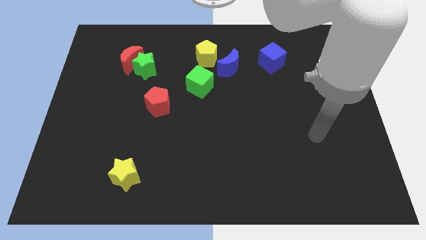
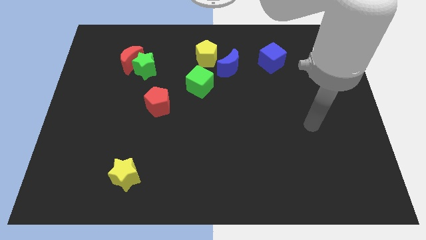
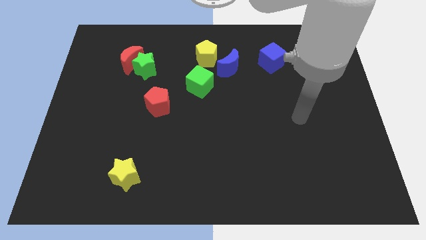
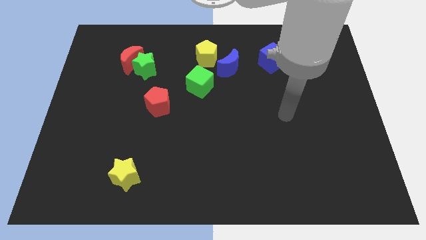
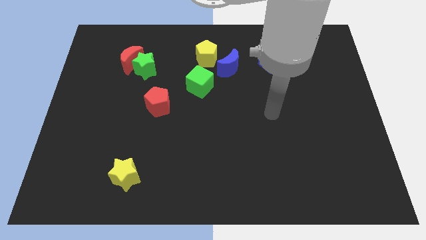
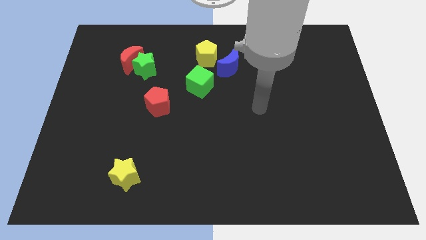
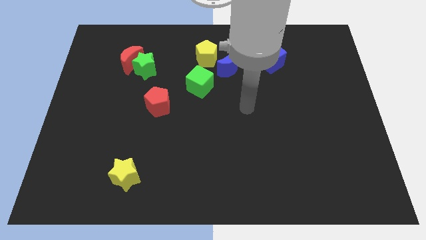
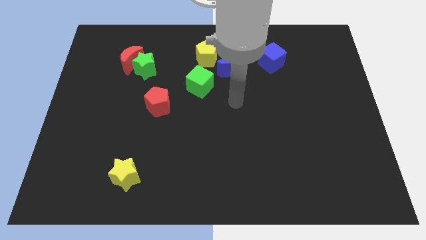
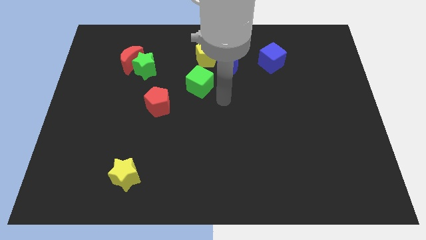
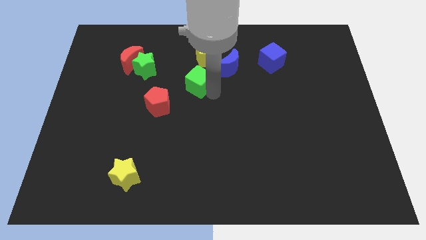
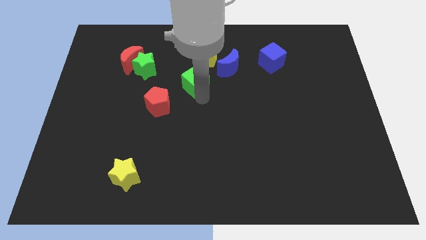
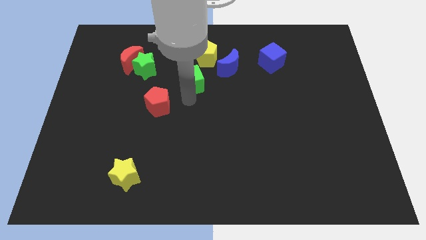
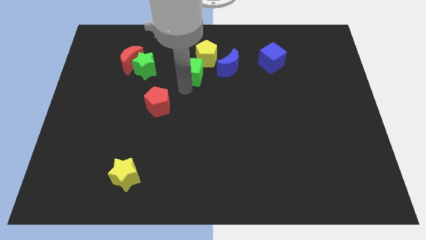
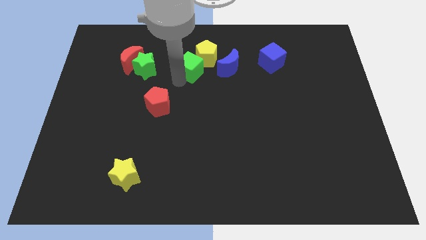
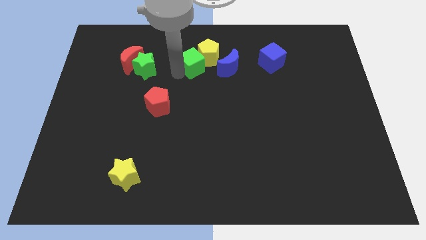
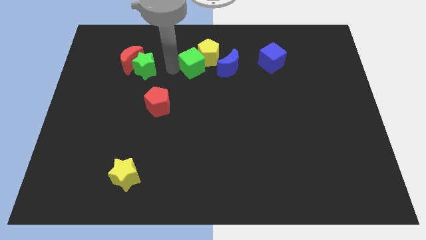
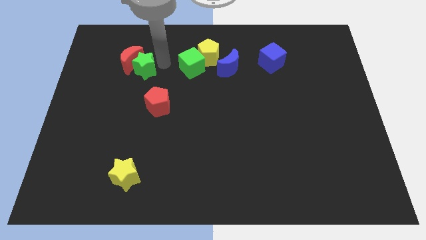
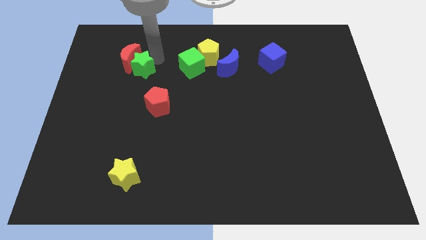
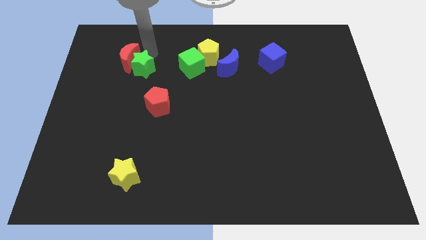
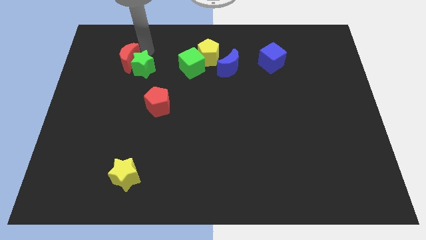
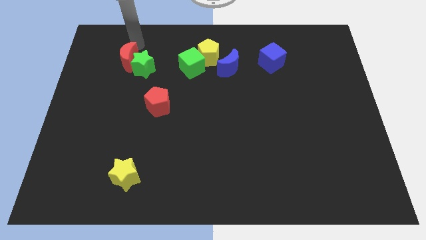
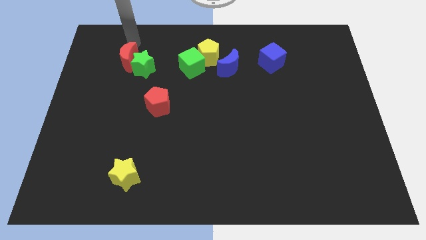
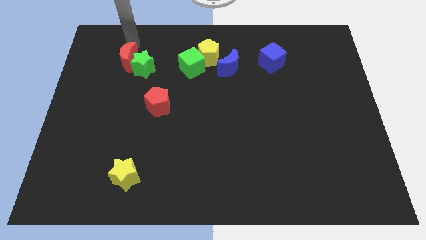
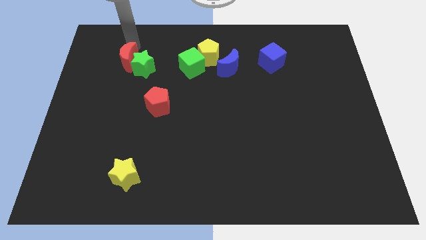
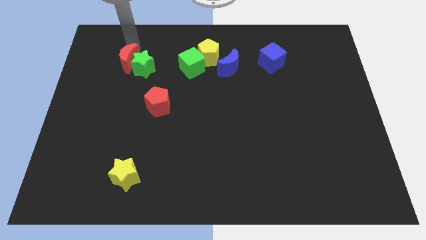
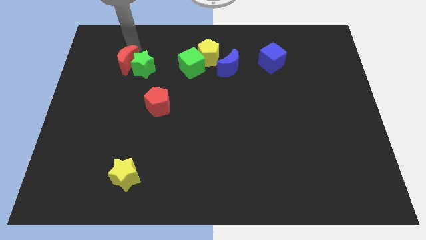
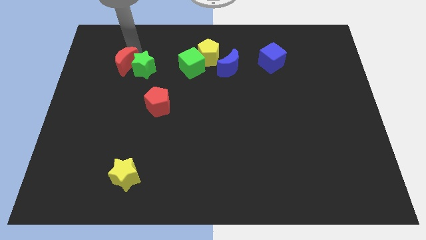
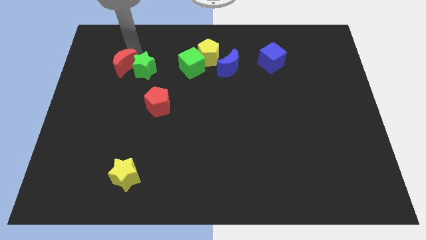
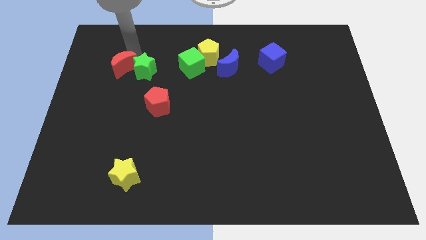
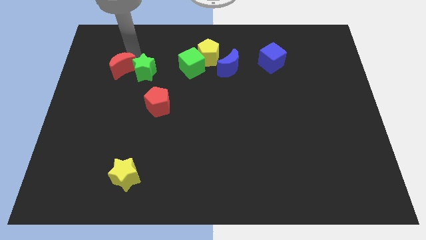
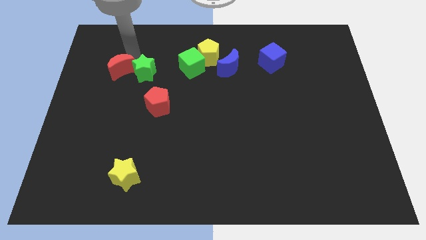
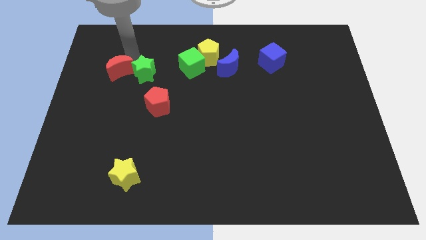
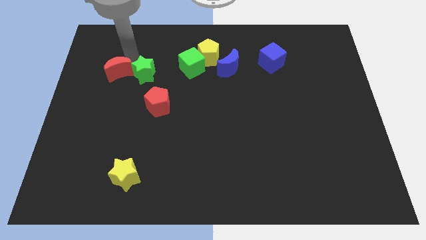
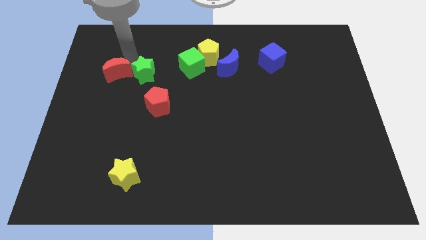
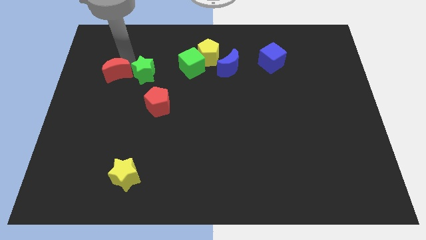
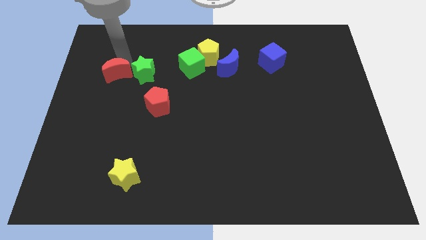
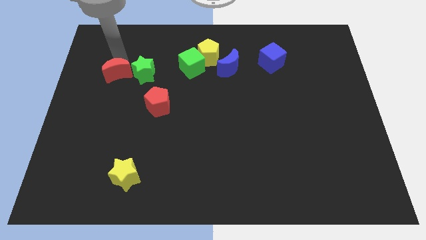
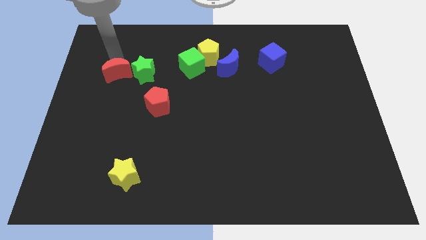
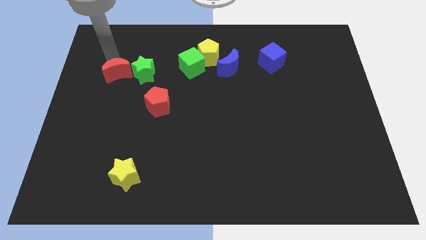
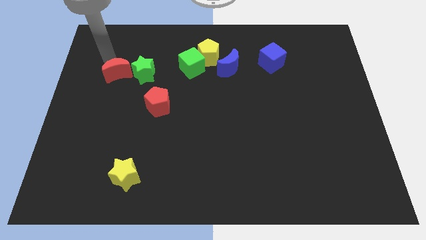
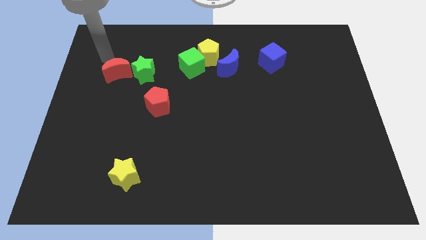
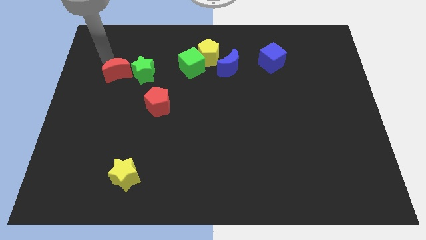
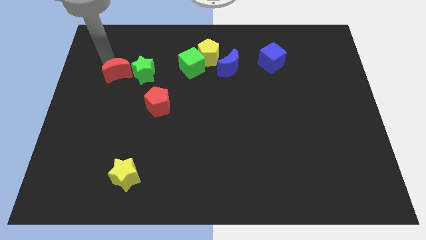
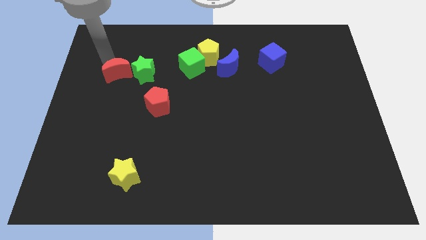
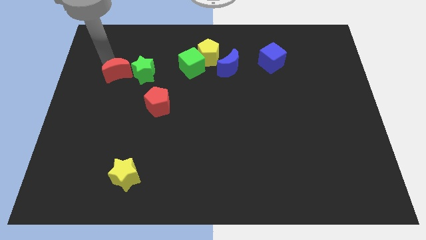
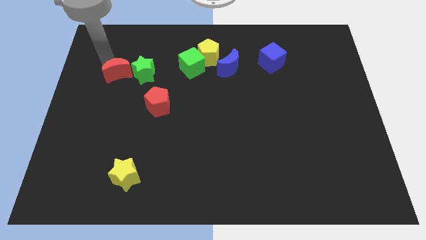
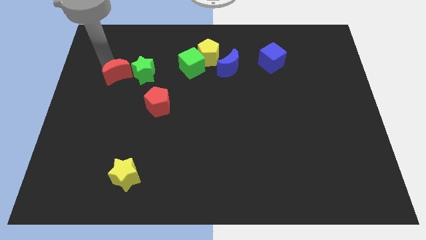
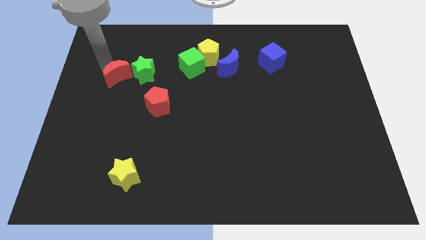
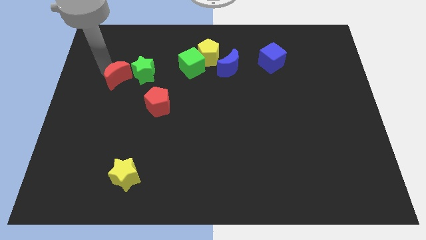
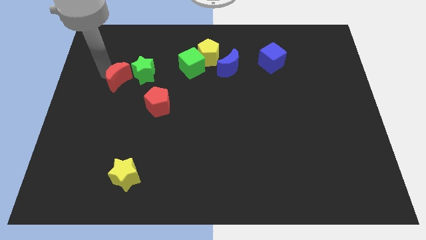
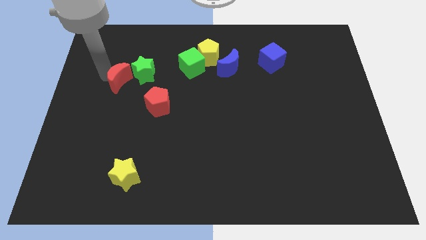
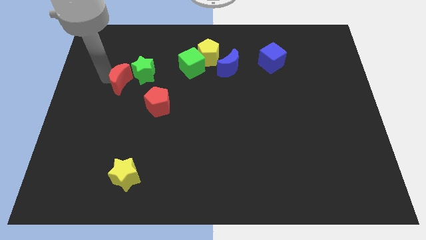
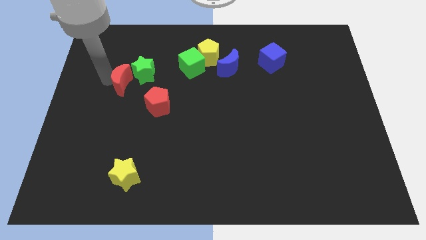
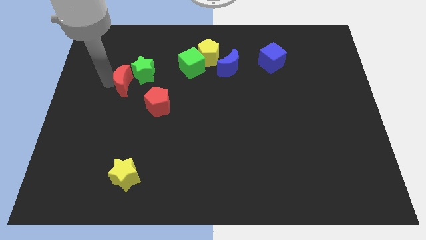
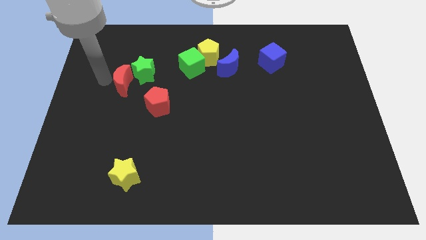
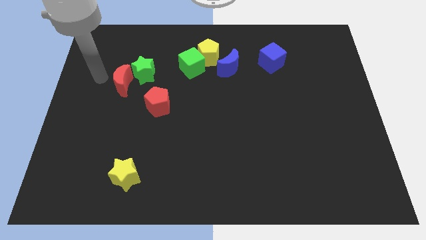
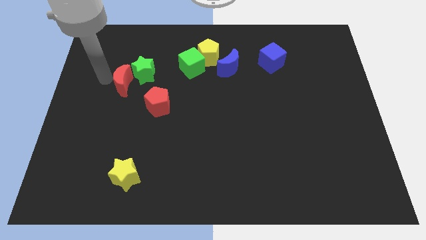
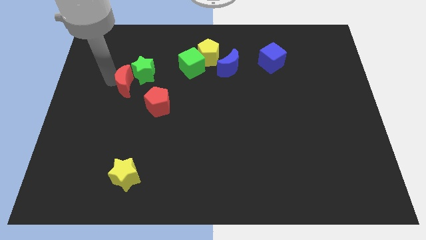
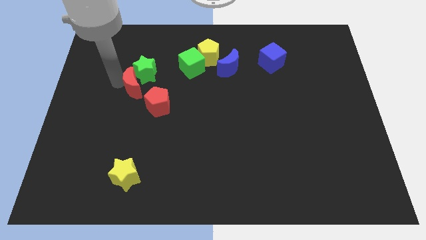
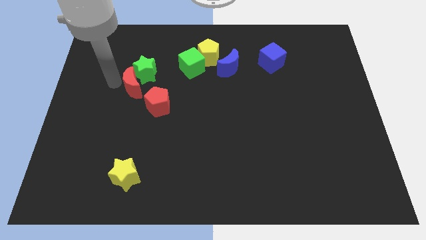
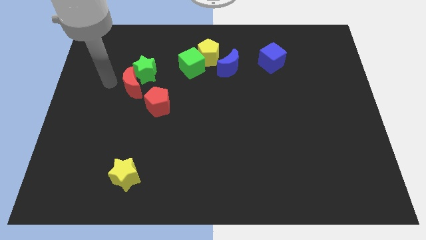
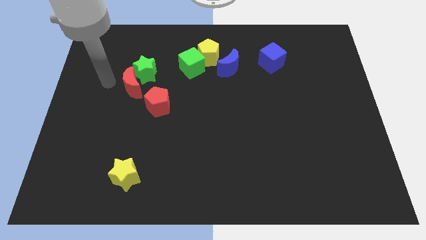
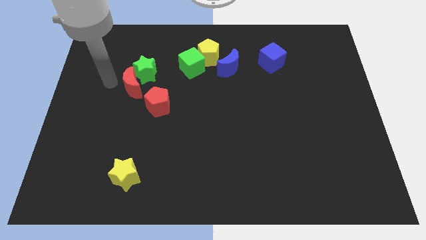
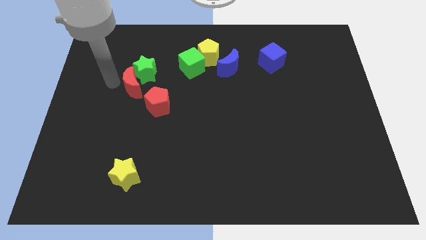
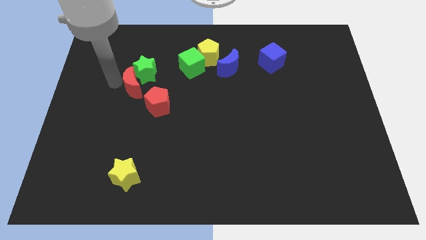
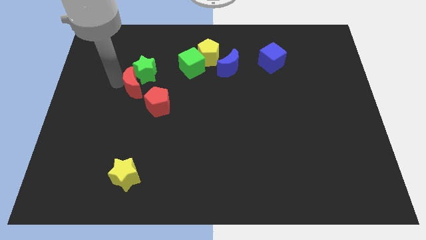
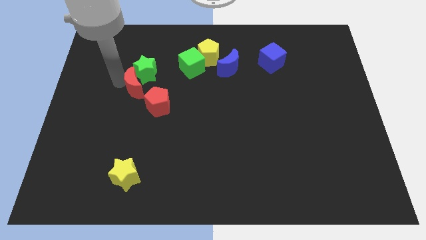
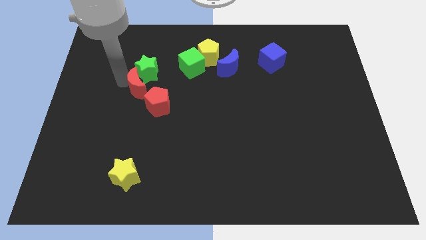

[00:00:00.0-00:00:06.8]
slide the red moon somewhat downwards and then right

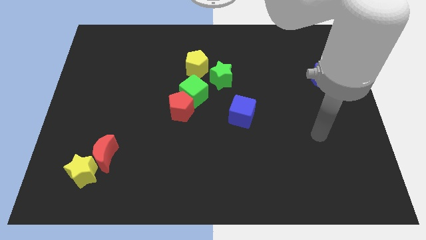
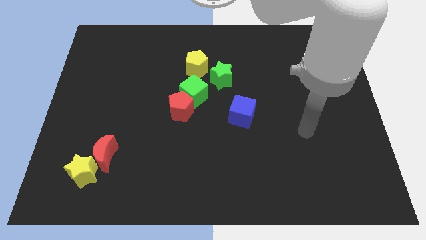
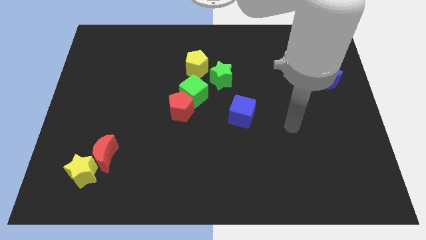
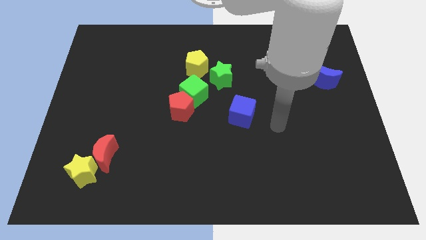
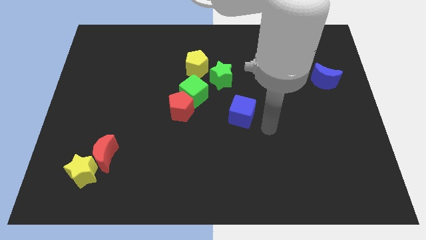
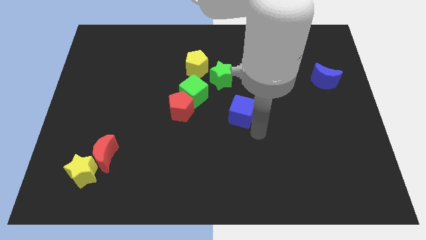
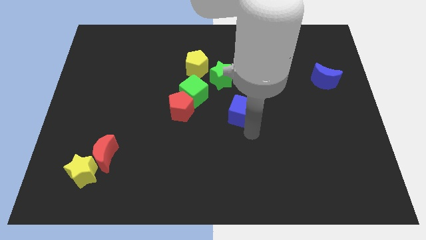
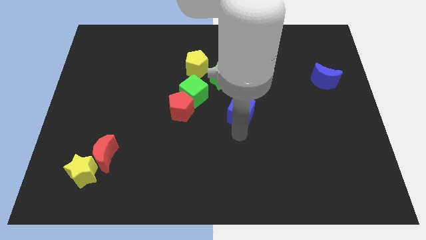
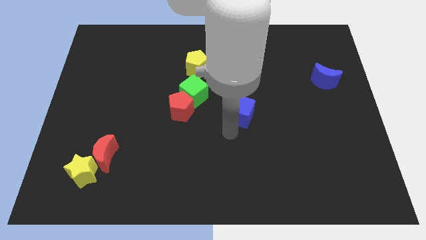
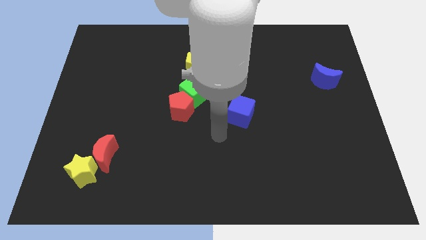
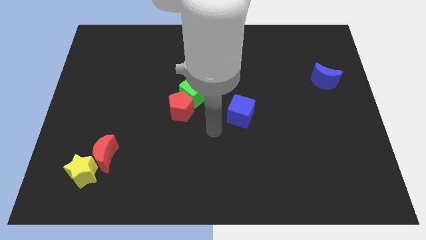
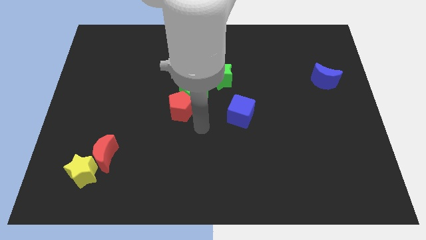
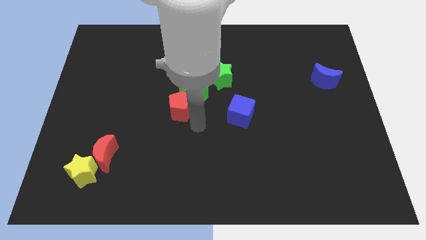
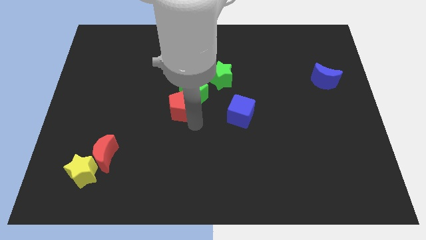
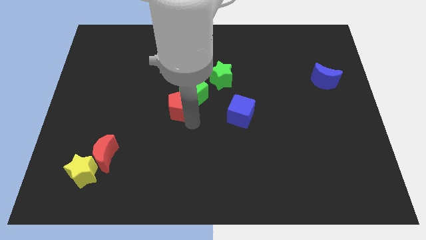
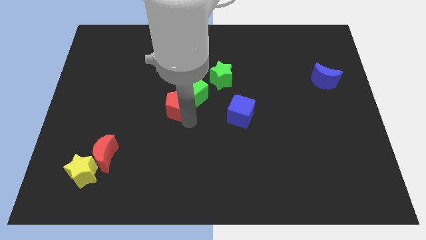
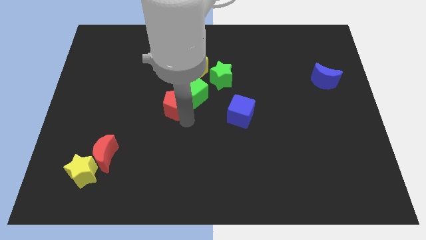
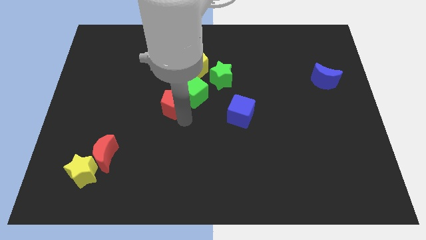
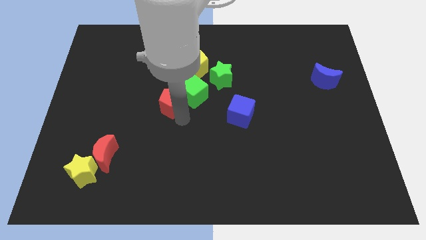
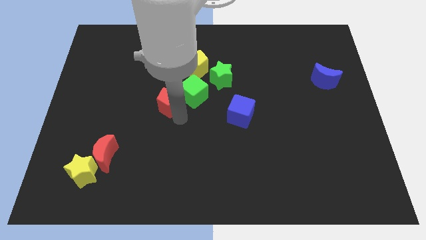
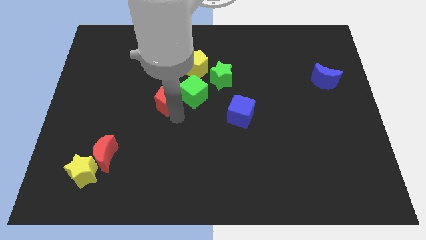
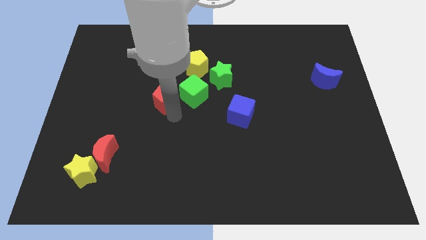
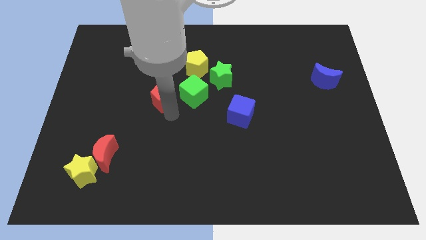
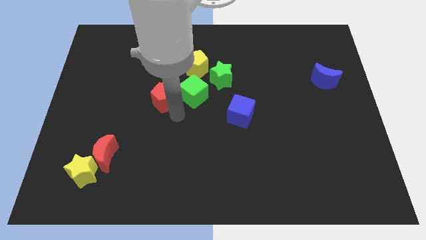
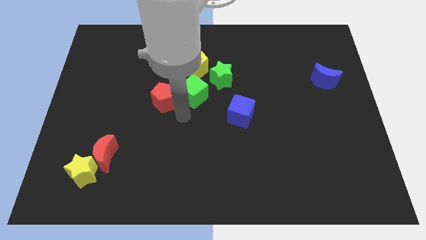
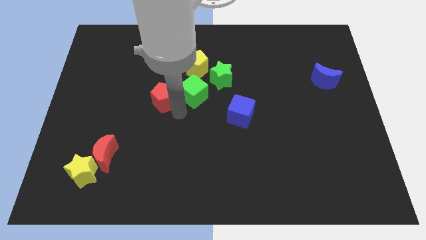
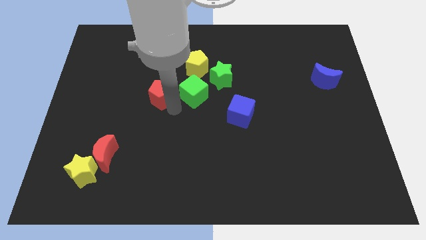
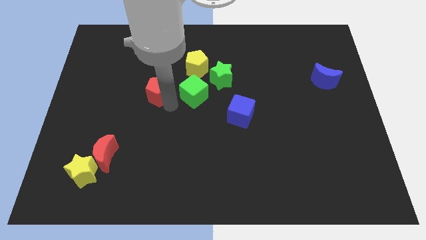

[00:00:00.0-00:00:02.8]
slightly slide the red pentagon up and then left
